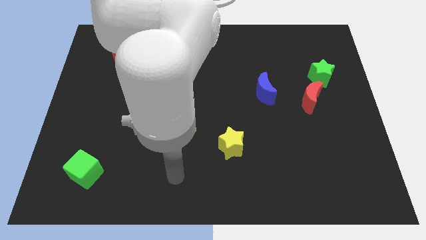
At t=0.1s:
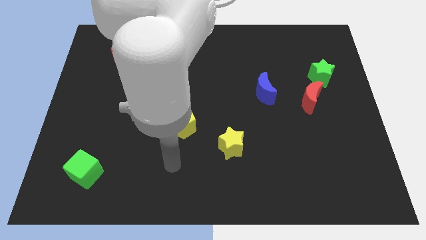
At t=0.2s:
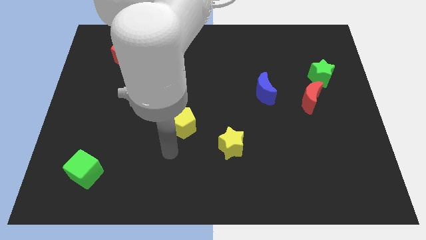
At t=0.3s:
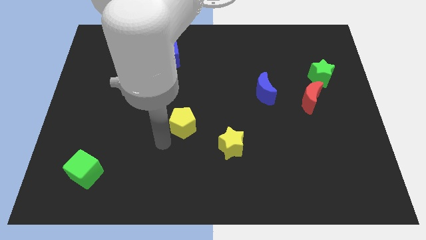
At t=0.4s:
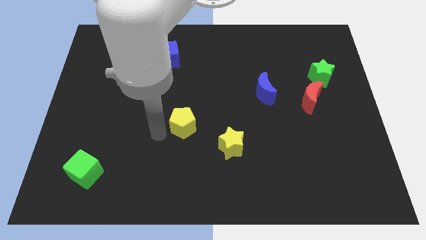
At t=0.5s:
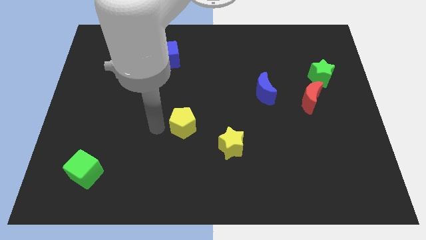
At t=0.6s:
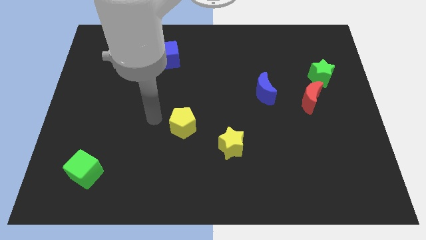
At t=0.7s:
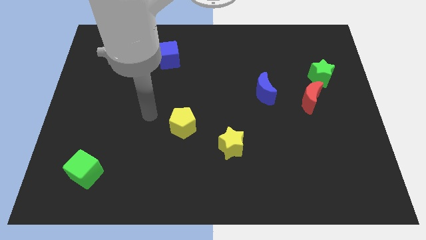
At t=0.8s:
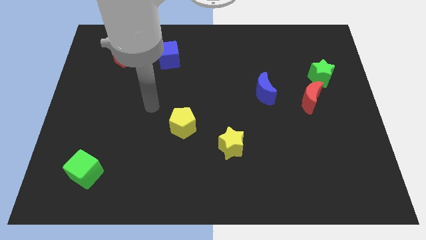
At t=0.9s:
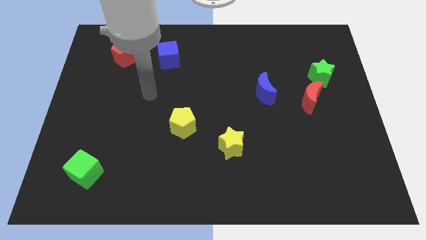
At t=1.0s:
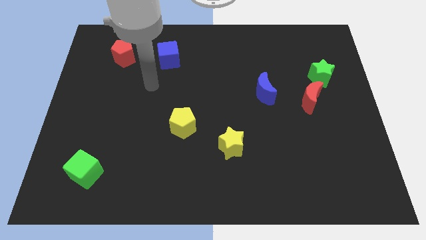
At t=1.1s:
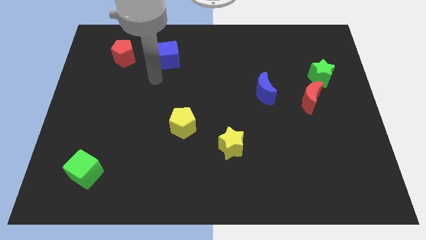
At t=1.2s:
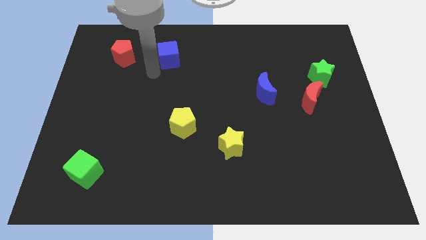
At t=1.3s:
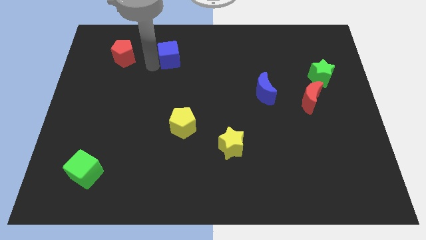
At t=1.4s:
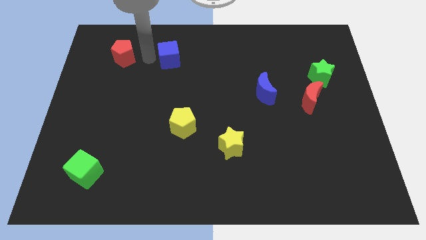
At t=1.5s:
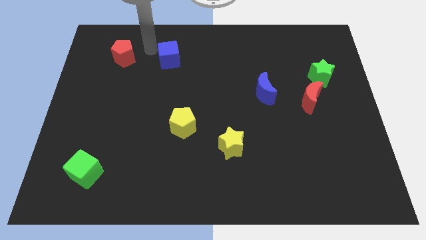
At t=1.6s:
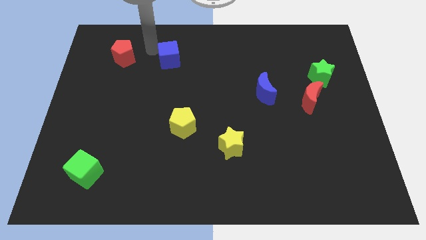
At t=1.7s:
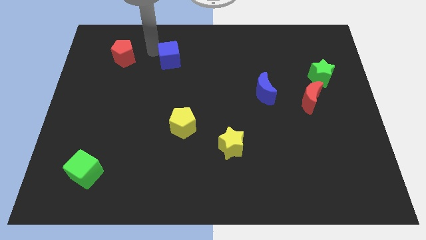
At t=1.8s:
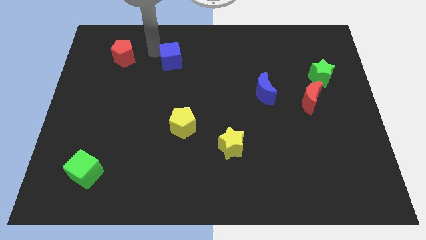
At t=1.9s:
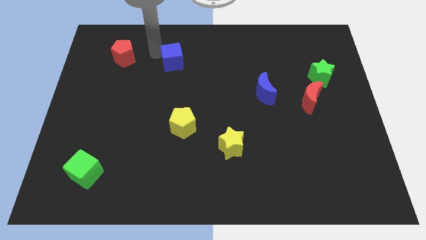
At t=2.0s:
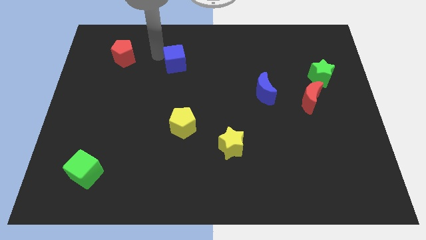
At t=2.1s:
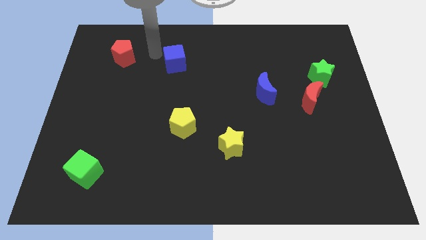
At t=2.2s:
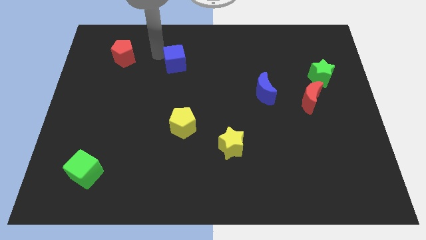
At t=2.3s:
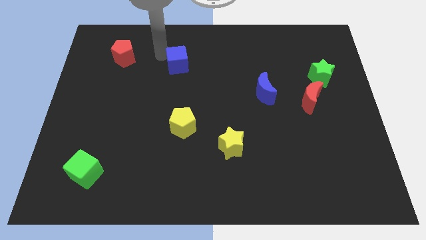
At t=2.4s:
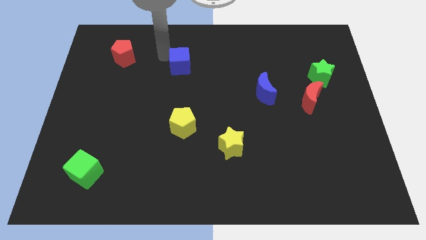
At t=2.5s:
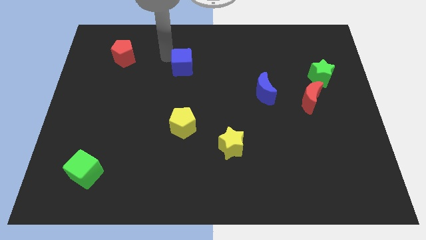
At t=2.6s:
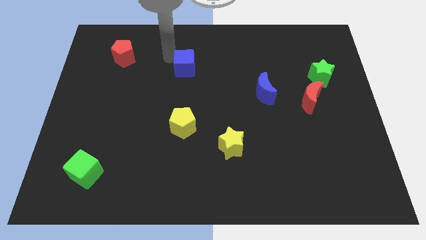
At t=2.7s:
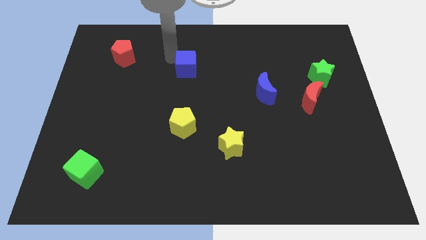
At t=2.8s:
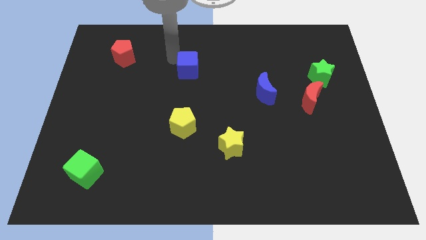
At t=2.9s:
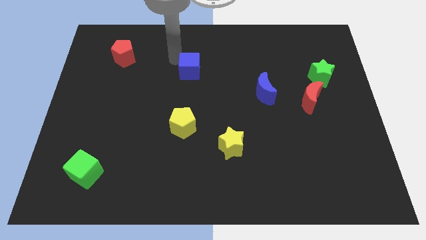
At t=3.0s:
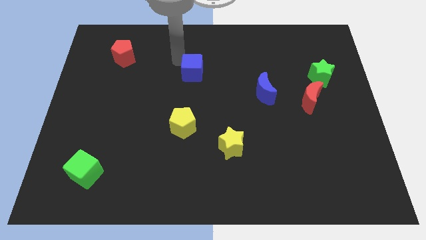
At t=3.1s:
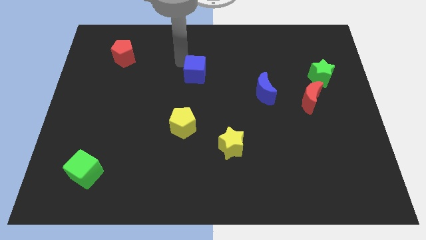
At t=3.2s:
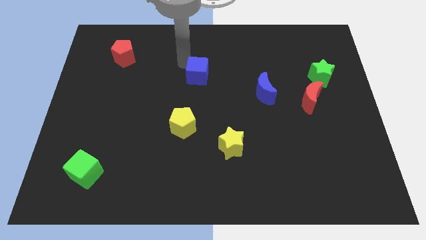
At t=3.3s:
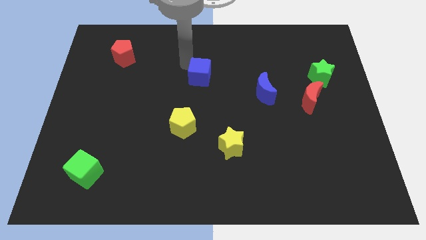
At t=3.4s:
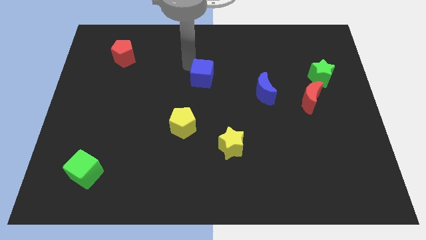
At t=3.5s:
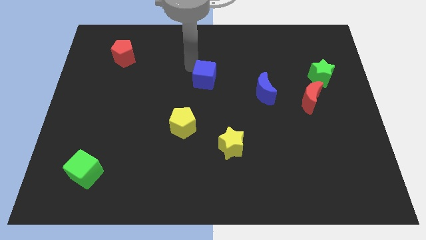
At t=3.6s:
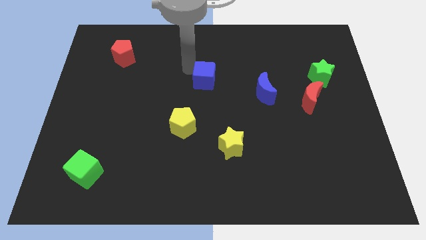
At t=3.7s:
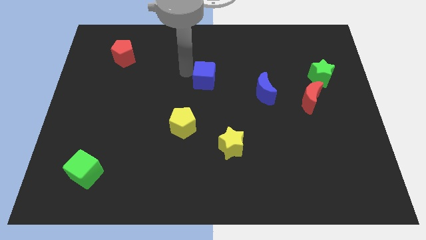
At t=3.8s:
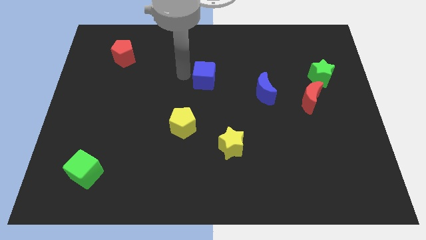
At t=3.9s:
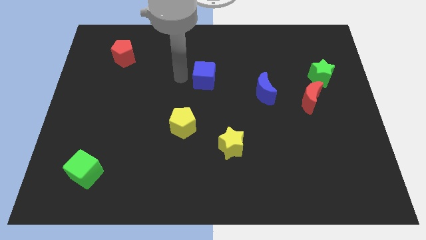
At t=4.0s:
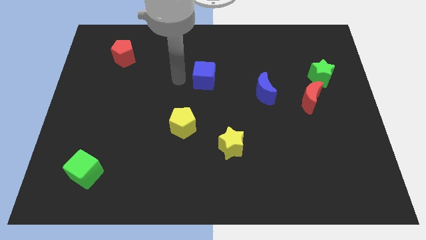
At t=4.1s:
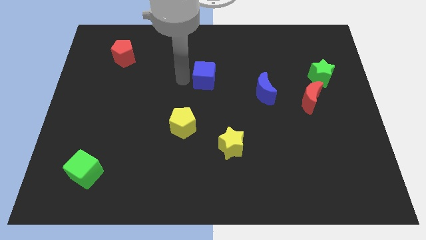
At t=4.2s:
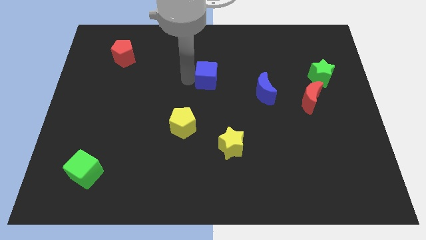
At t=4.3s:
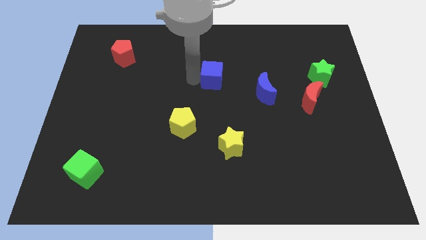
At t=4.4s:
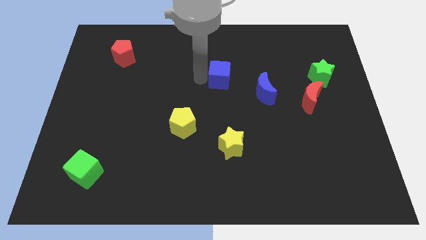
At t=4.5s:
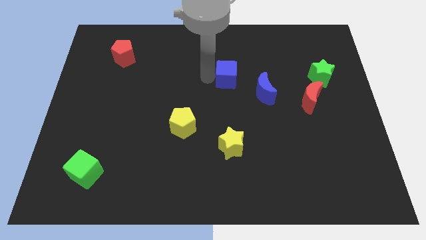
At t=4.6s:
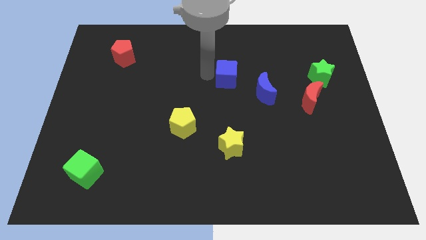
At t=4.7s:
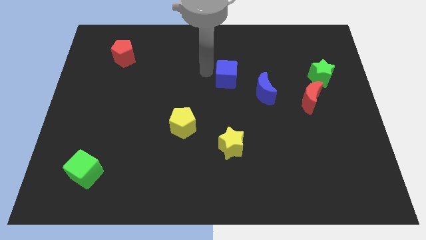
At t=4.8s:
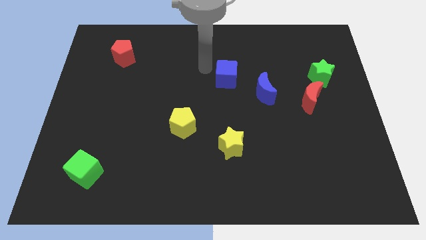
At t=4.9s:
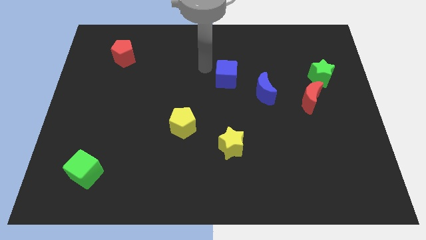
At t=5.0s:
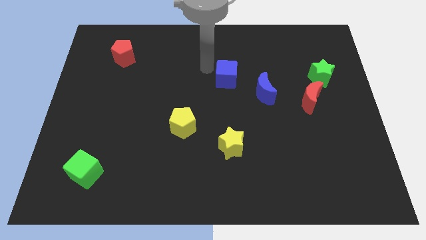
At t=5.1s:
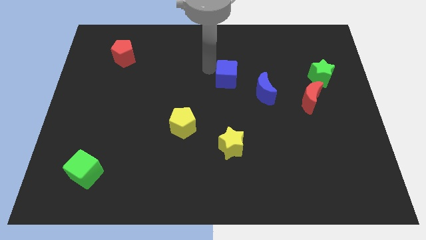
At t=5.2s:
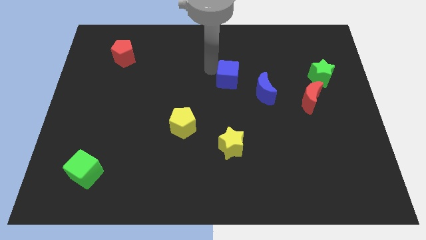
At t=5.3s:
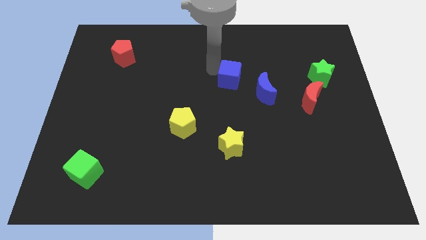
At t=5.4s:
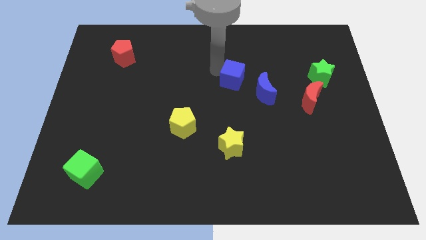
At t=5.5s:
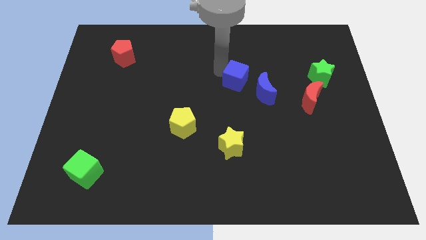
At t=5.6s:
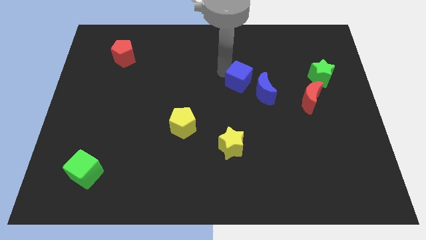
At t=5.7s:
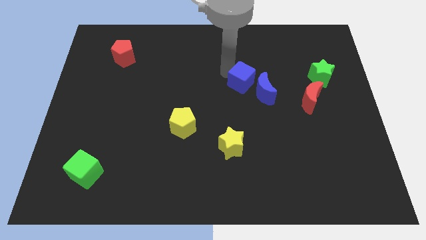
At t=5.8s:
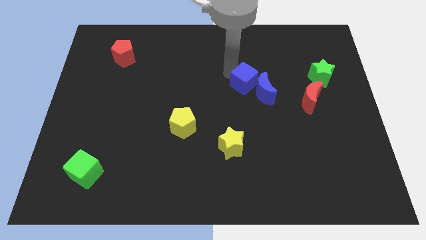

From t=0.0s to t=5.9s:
push the blue cube to the blue moon

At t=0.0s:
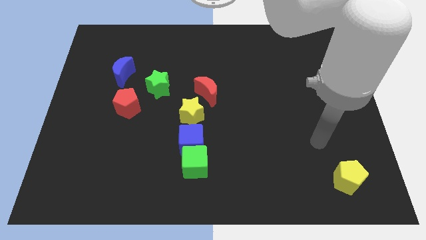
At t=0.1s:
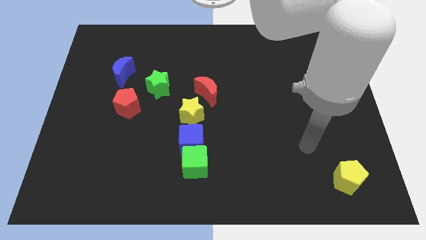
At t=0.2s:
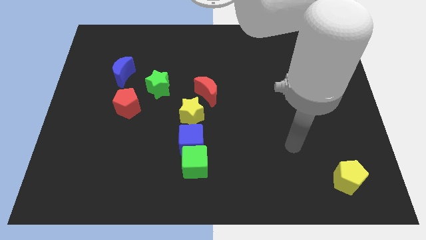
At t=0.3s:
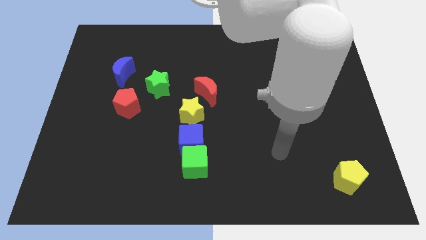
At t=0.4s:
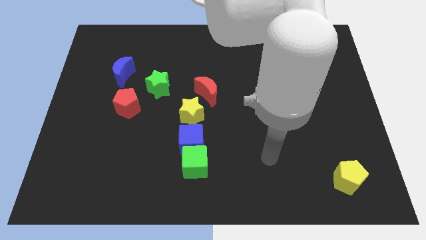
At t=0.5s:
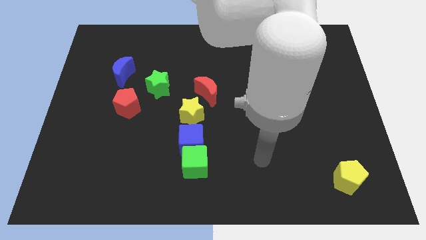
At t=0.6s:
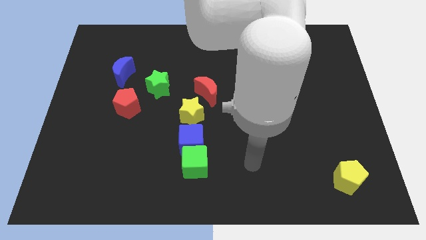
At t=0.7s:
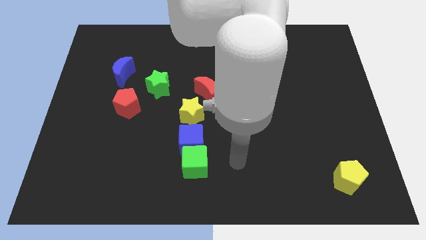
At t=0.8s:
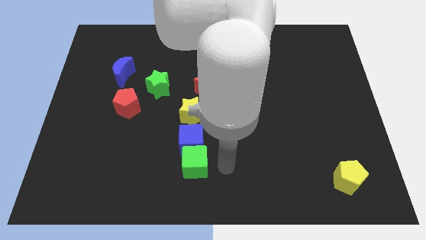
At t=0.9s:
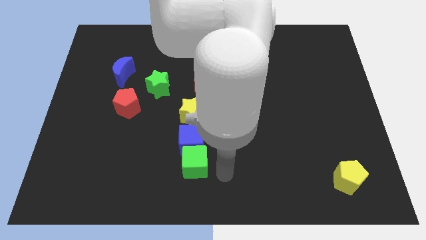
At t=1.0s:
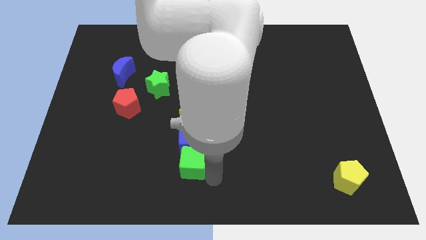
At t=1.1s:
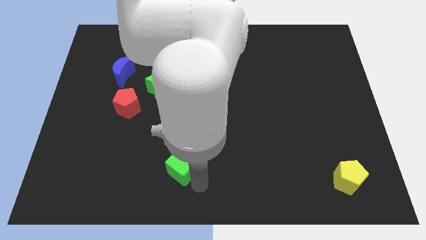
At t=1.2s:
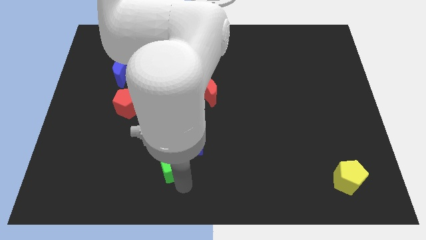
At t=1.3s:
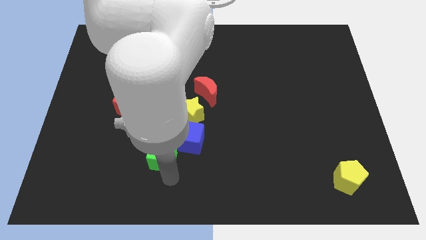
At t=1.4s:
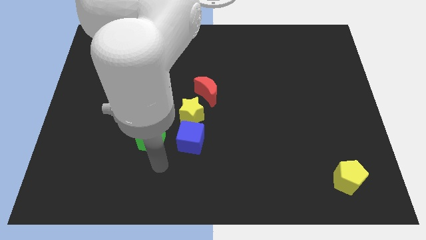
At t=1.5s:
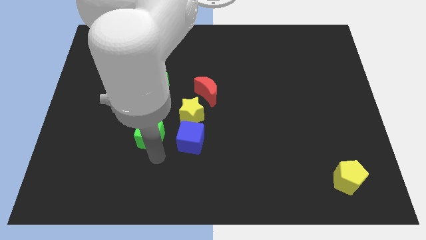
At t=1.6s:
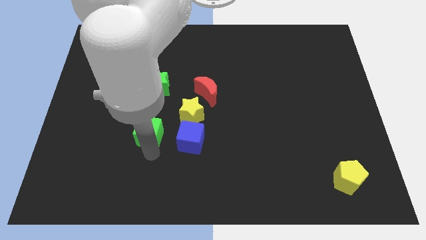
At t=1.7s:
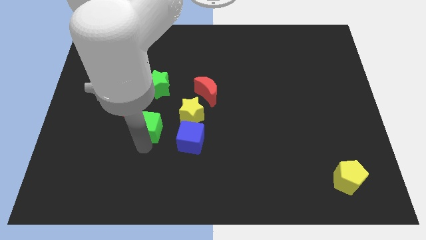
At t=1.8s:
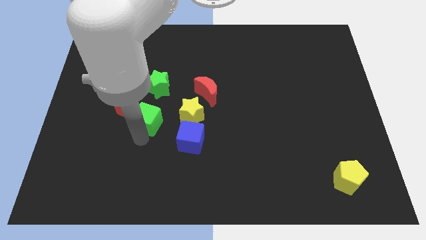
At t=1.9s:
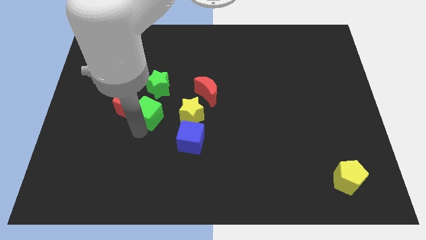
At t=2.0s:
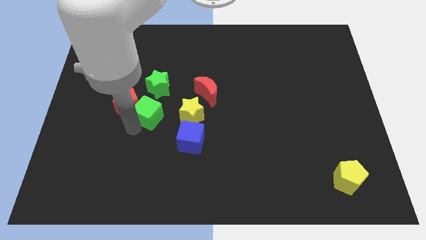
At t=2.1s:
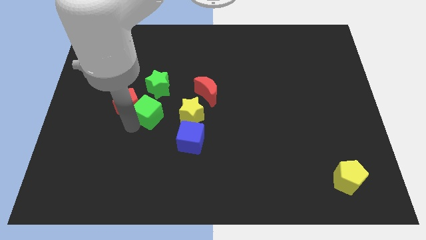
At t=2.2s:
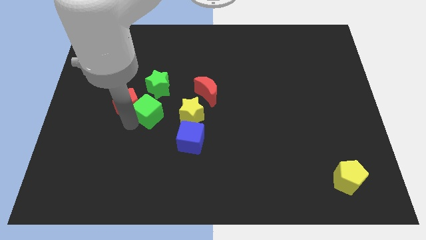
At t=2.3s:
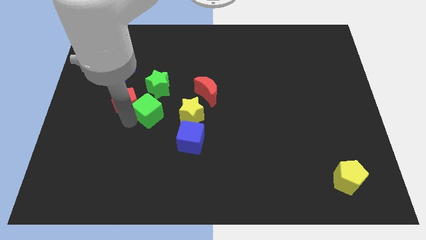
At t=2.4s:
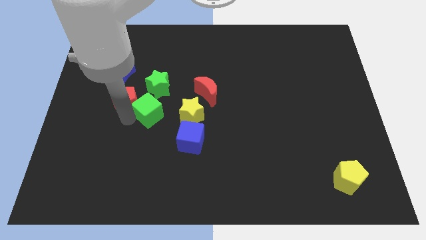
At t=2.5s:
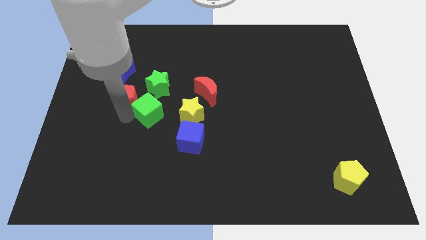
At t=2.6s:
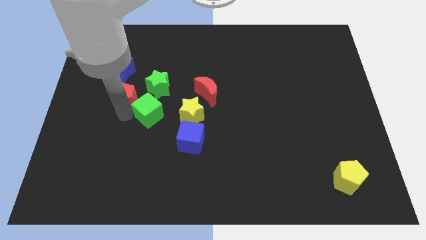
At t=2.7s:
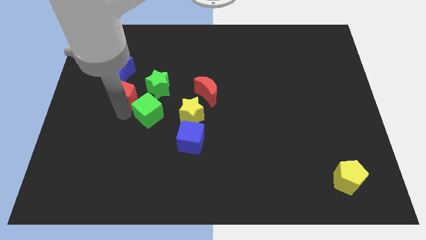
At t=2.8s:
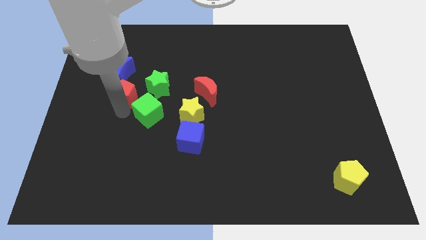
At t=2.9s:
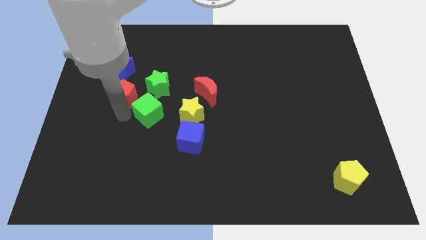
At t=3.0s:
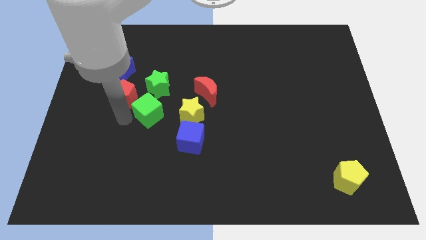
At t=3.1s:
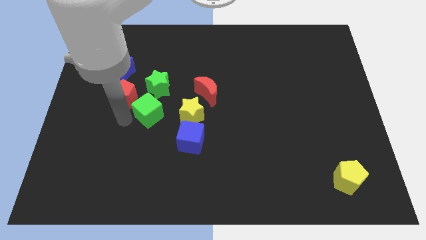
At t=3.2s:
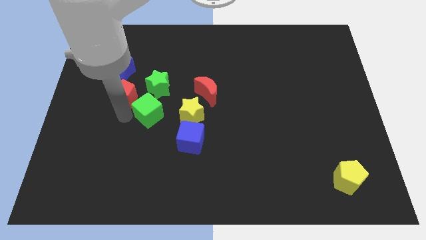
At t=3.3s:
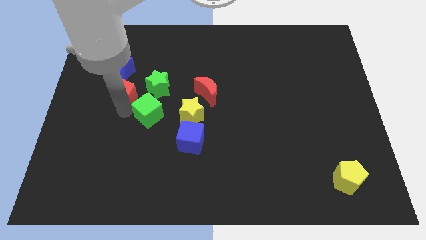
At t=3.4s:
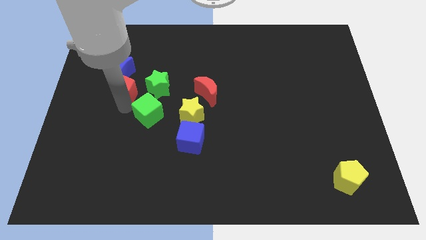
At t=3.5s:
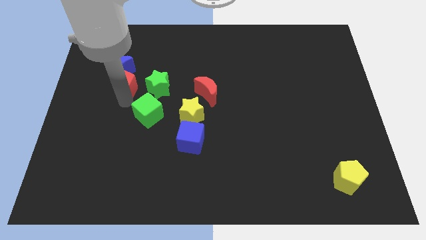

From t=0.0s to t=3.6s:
slide the red pentagon to the blue moon
